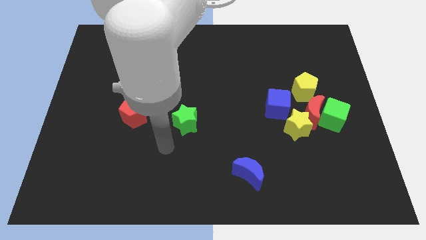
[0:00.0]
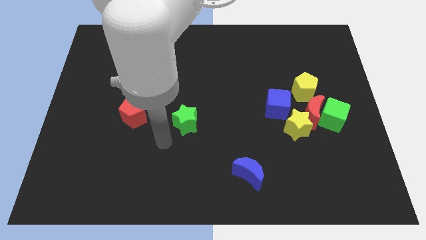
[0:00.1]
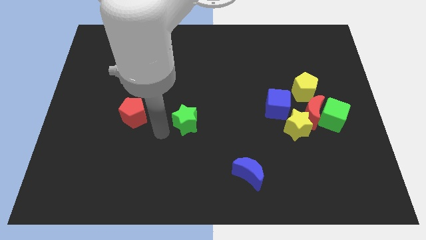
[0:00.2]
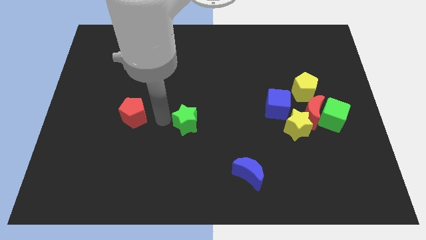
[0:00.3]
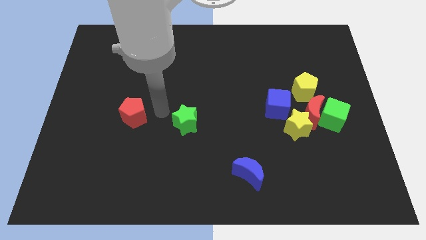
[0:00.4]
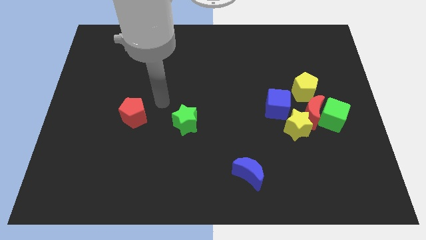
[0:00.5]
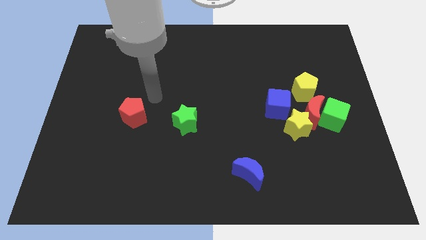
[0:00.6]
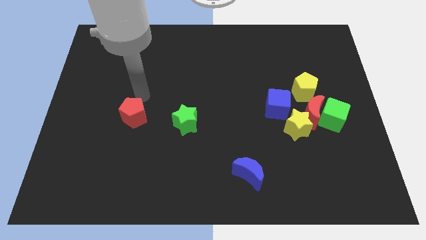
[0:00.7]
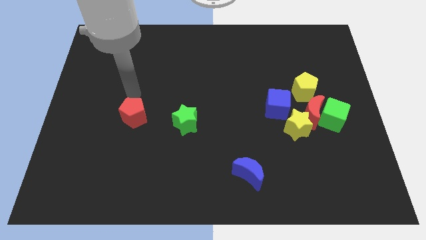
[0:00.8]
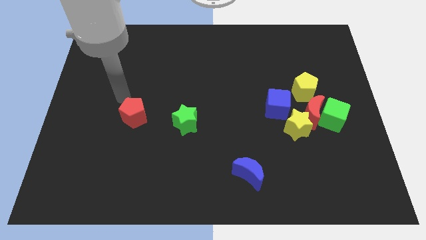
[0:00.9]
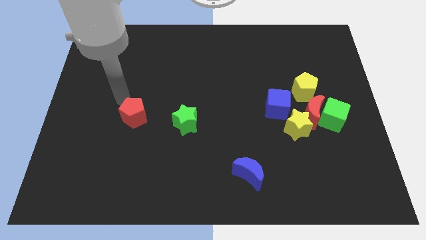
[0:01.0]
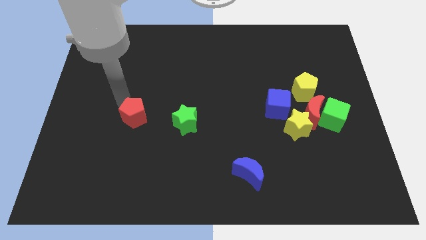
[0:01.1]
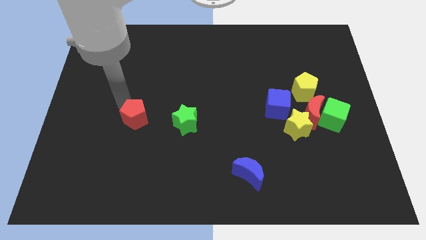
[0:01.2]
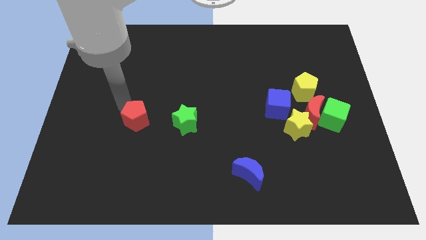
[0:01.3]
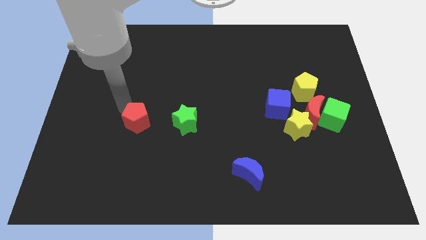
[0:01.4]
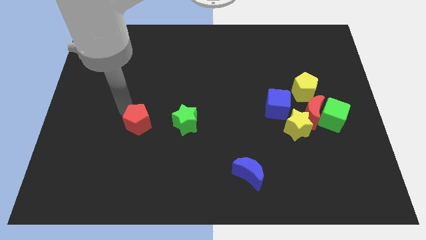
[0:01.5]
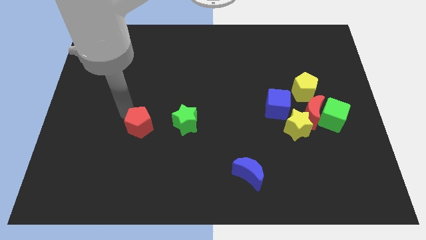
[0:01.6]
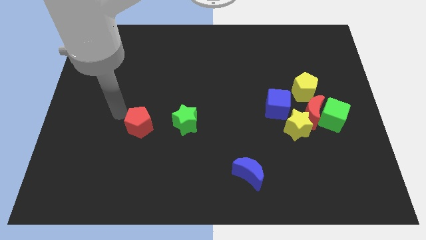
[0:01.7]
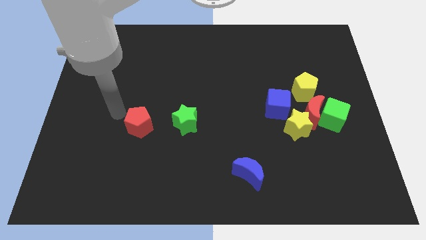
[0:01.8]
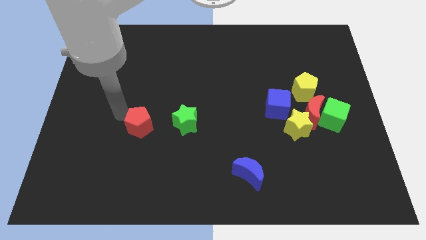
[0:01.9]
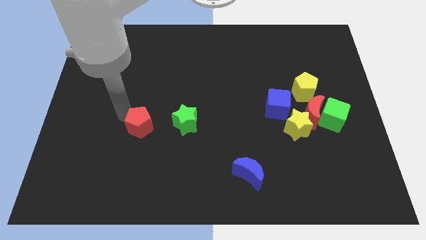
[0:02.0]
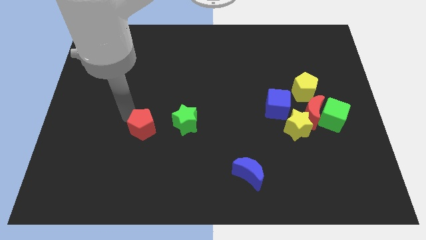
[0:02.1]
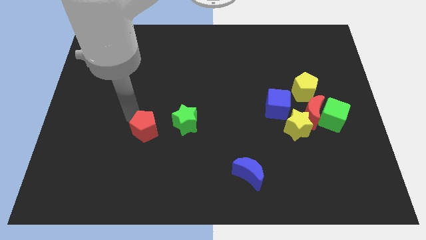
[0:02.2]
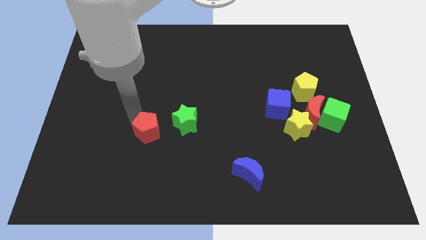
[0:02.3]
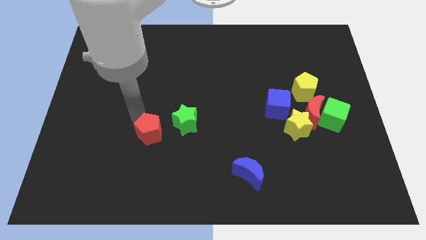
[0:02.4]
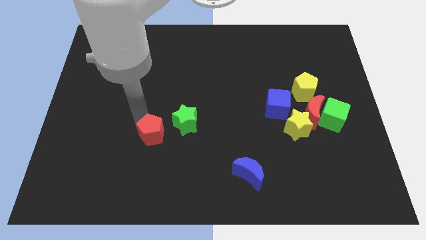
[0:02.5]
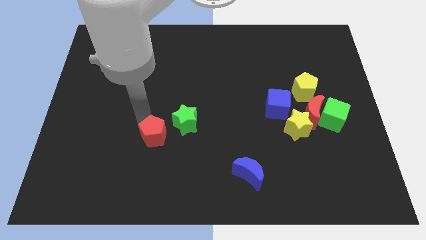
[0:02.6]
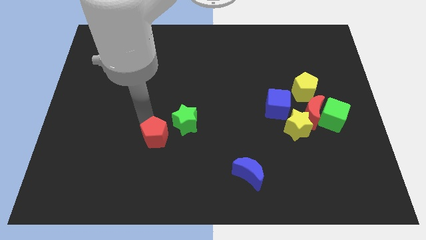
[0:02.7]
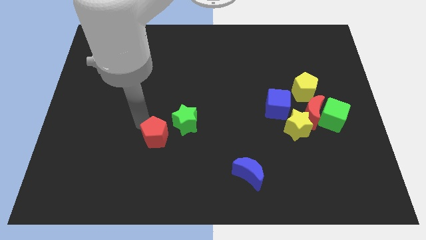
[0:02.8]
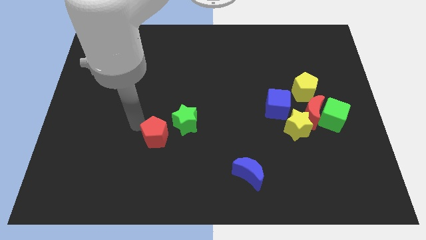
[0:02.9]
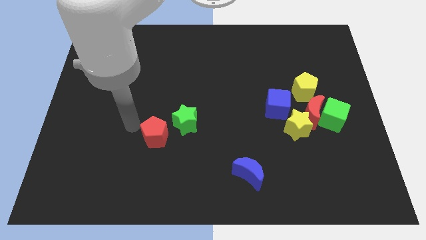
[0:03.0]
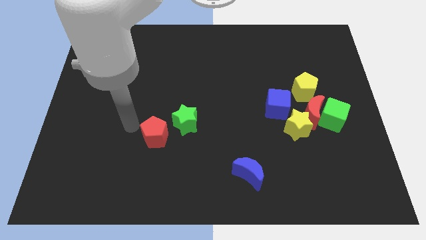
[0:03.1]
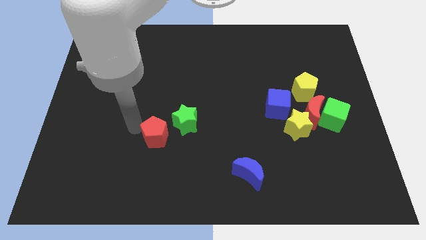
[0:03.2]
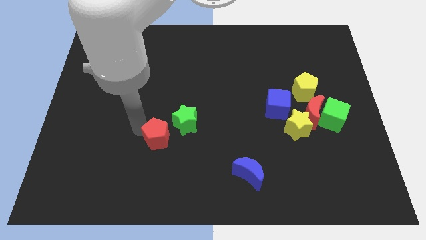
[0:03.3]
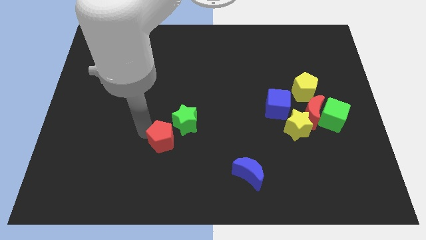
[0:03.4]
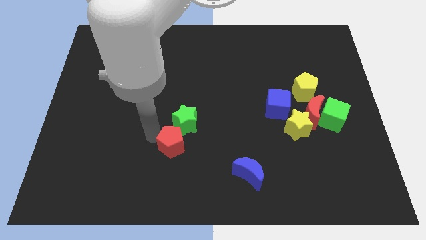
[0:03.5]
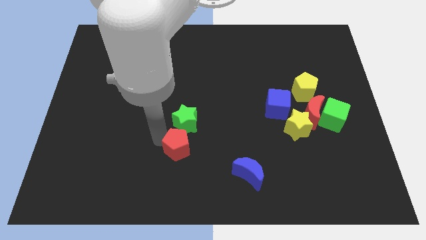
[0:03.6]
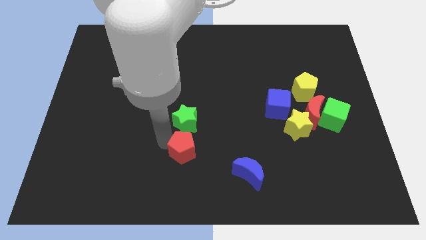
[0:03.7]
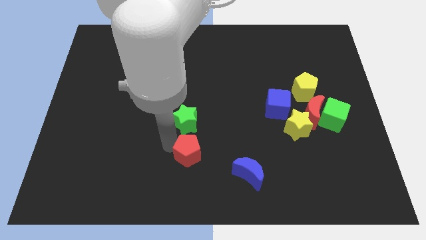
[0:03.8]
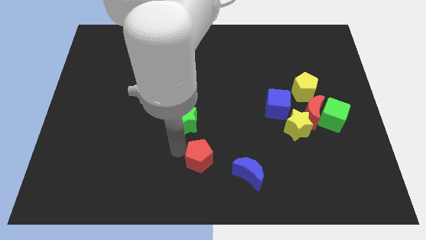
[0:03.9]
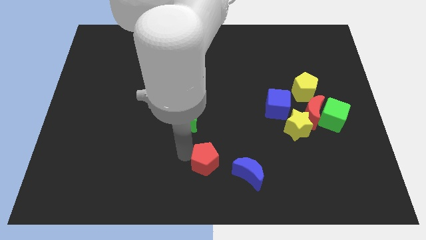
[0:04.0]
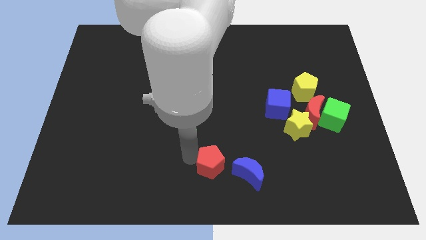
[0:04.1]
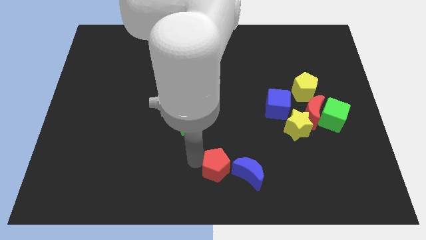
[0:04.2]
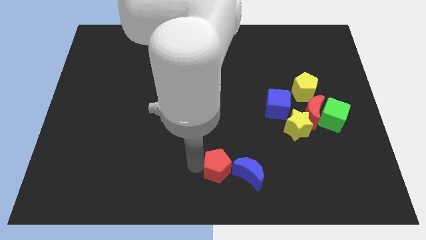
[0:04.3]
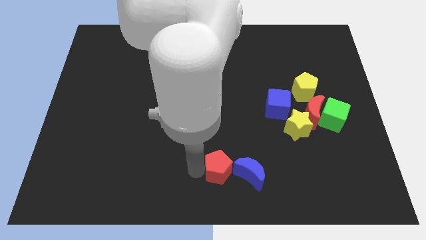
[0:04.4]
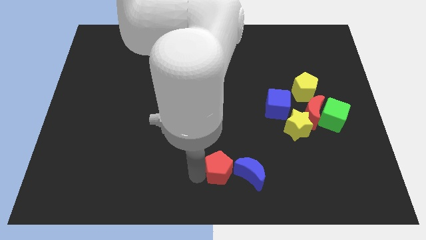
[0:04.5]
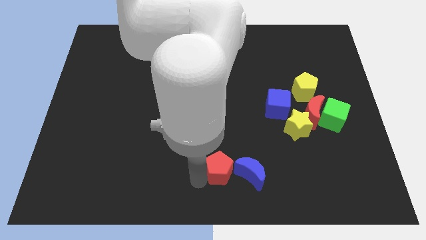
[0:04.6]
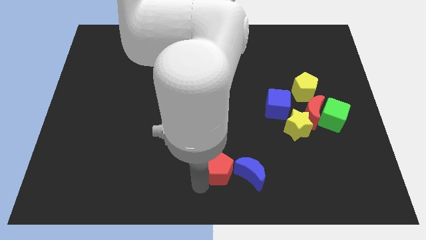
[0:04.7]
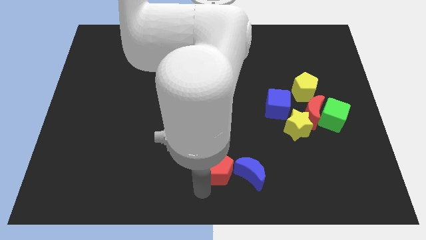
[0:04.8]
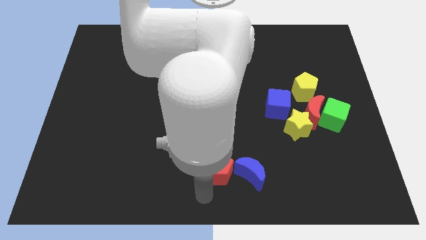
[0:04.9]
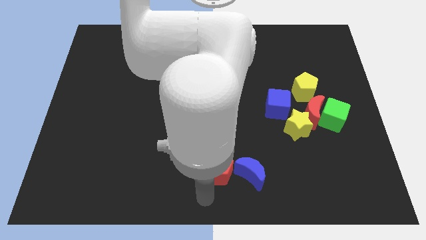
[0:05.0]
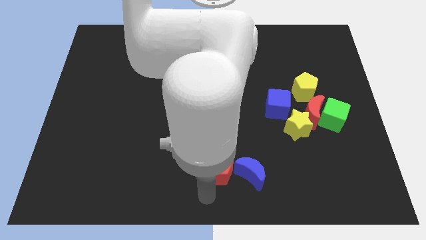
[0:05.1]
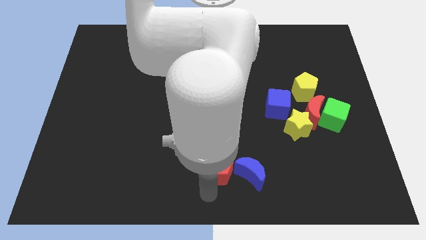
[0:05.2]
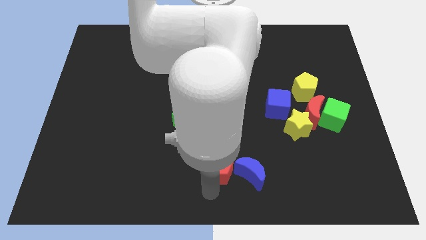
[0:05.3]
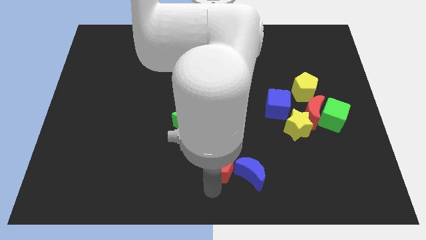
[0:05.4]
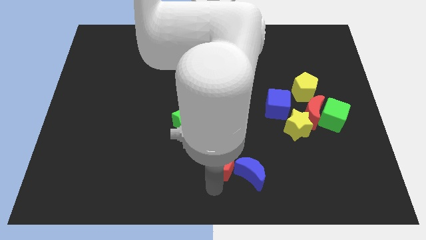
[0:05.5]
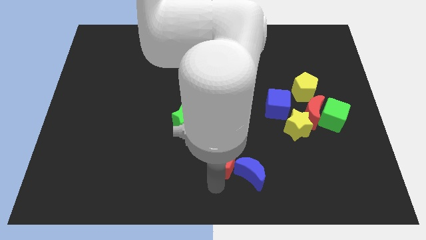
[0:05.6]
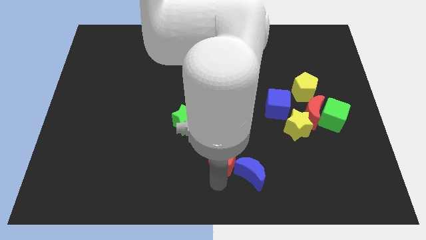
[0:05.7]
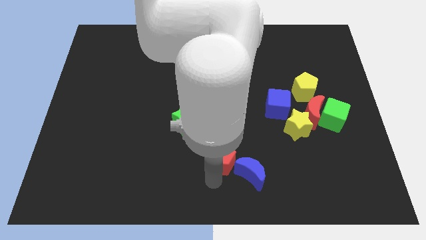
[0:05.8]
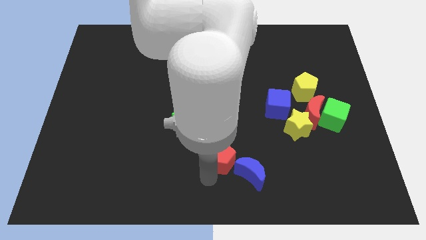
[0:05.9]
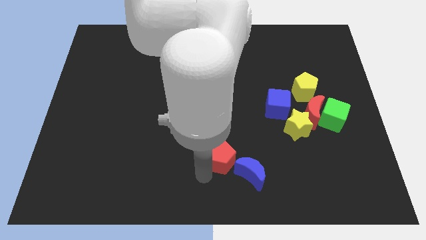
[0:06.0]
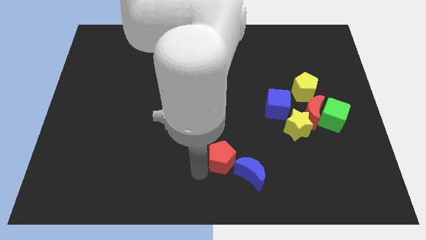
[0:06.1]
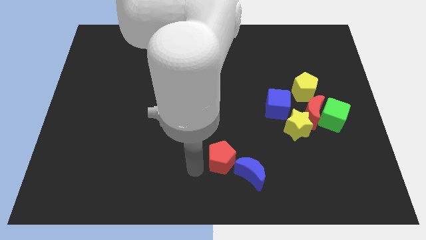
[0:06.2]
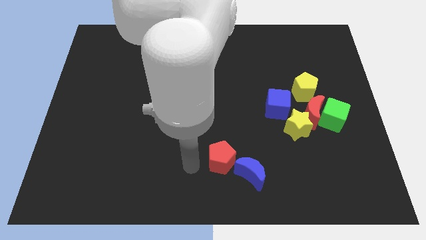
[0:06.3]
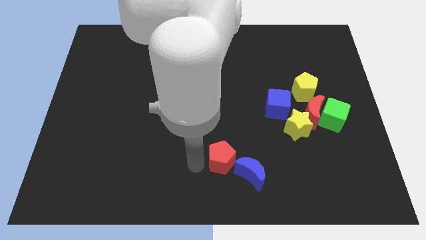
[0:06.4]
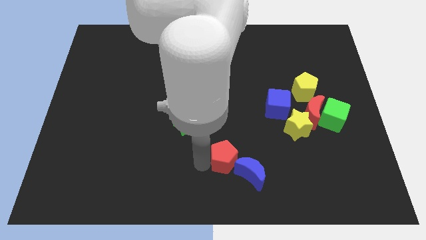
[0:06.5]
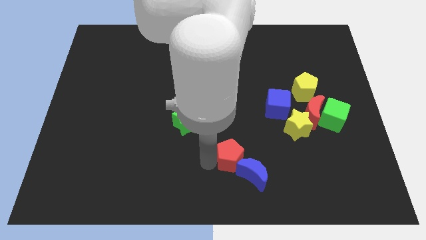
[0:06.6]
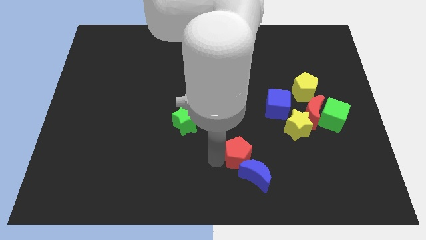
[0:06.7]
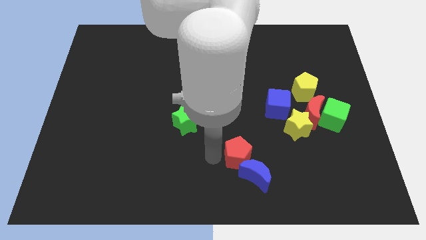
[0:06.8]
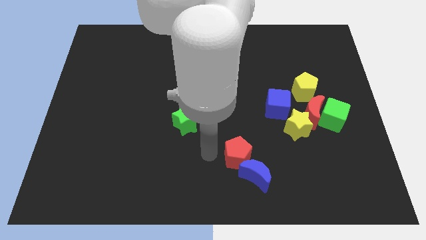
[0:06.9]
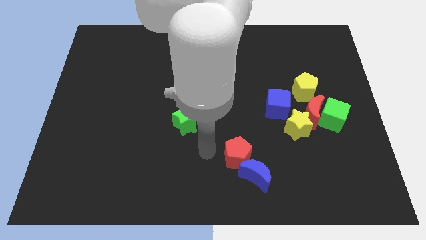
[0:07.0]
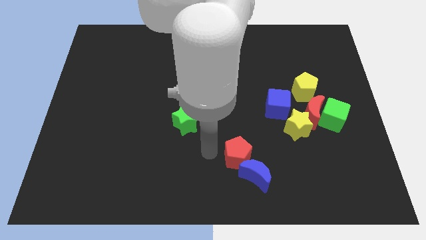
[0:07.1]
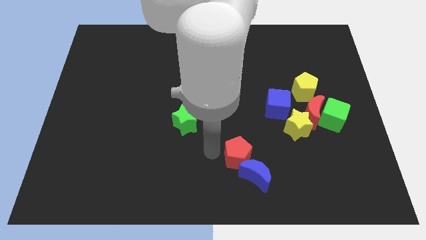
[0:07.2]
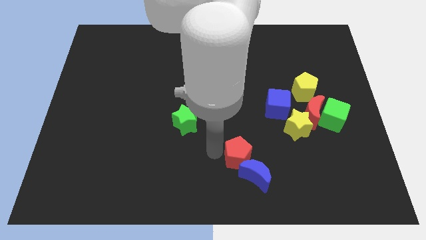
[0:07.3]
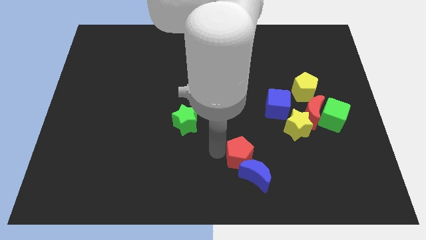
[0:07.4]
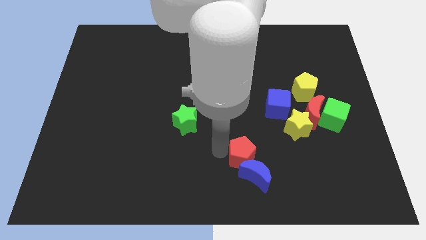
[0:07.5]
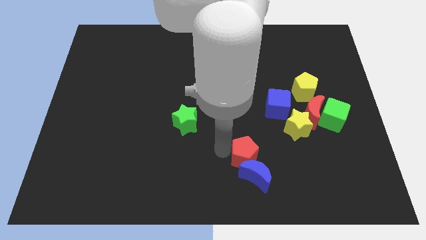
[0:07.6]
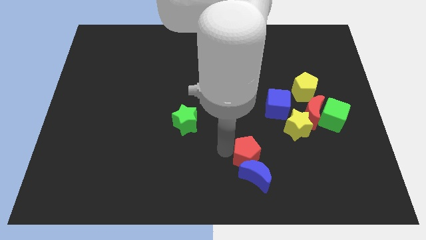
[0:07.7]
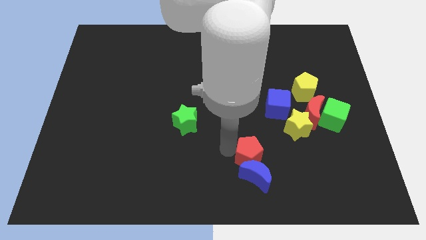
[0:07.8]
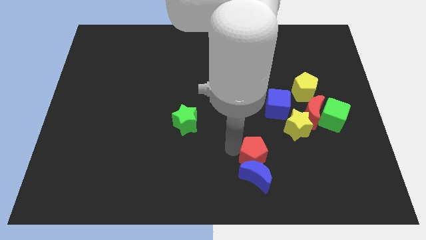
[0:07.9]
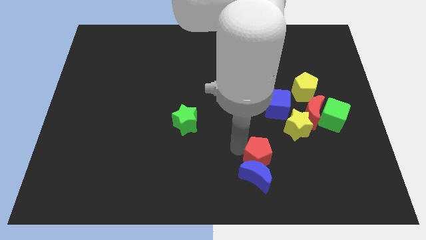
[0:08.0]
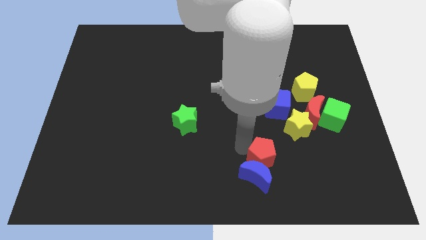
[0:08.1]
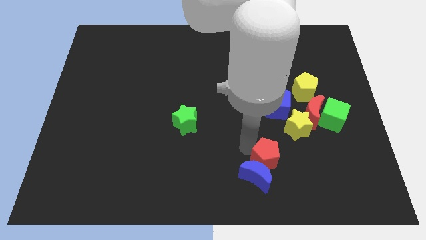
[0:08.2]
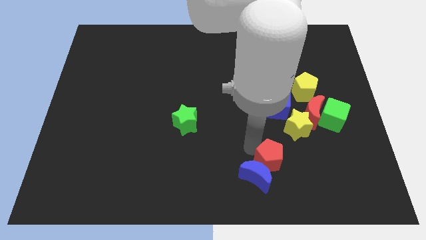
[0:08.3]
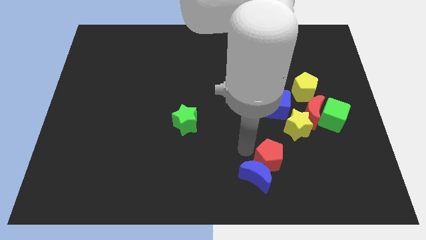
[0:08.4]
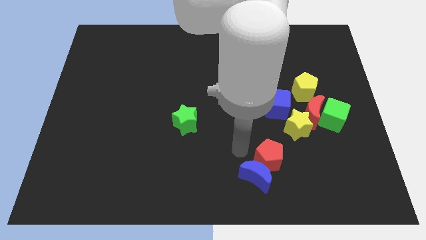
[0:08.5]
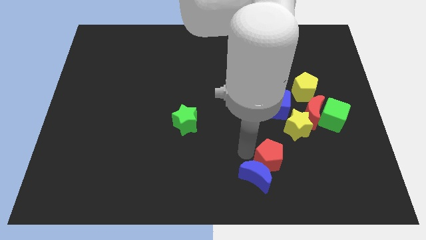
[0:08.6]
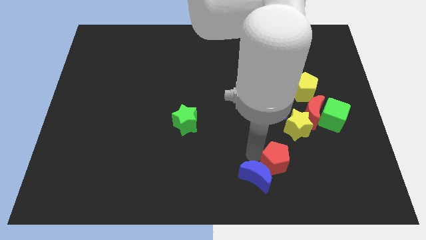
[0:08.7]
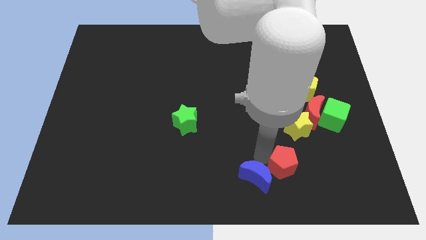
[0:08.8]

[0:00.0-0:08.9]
move the red pentagon to the bottom of the yellow star
